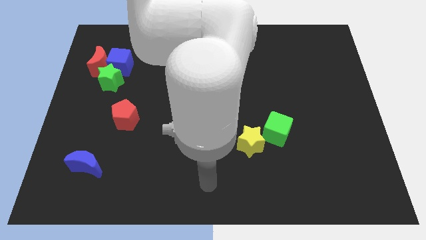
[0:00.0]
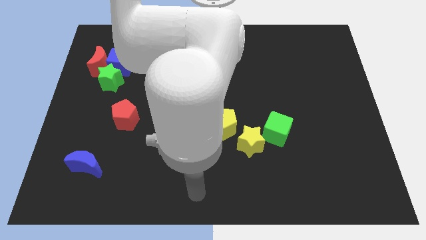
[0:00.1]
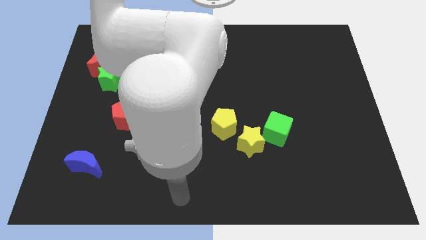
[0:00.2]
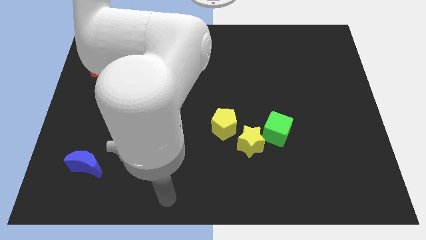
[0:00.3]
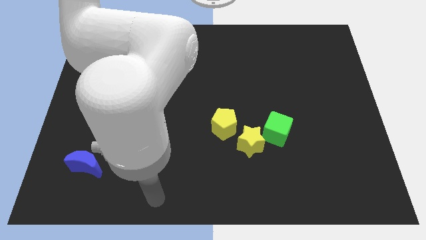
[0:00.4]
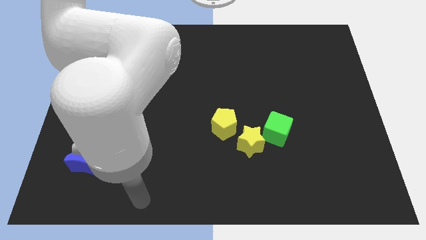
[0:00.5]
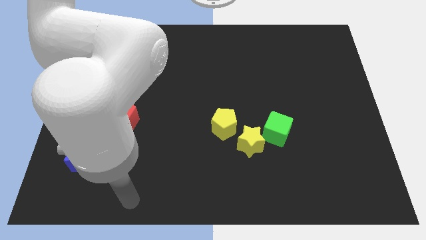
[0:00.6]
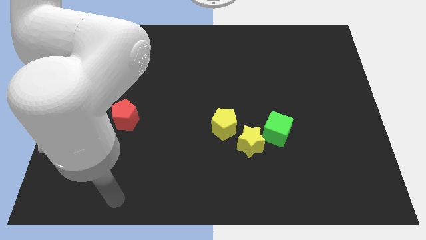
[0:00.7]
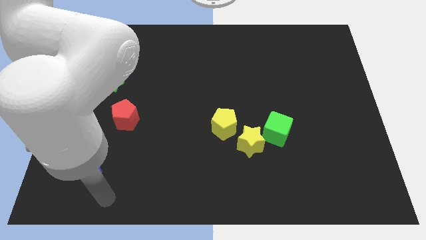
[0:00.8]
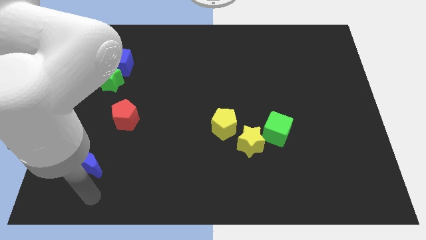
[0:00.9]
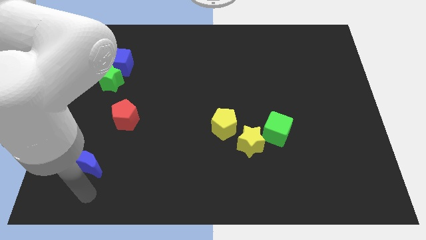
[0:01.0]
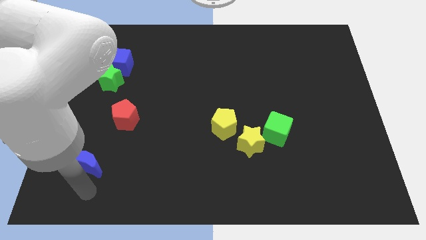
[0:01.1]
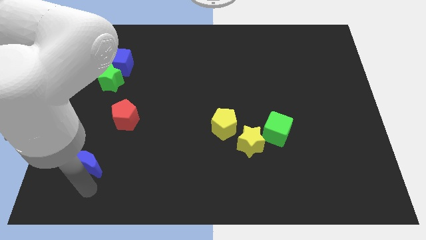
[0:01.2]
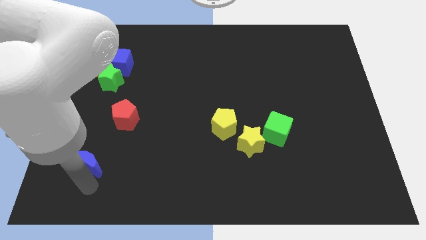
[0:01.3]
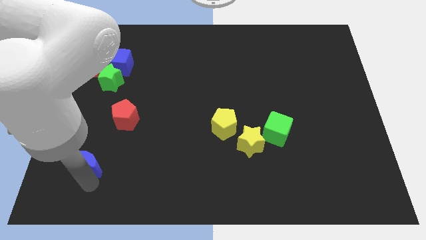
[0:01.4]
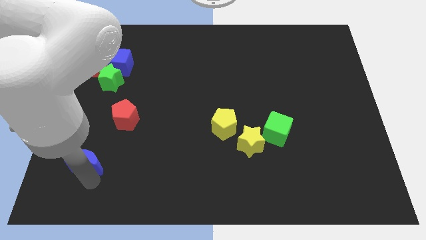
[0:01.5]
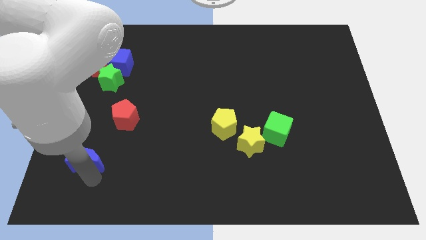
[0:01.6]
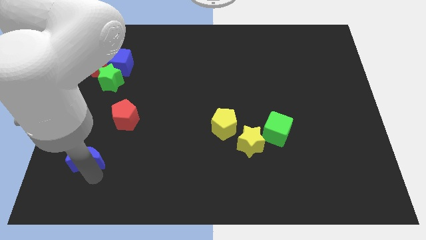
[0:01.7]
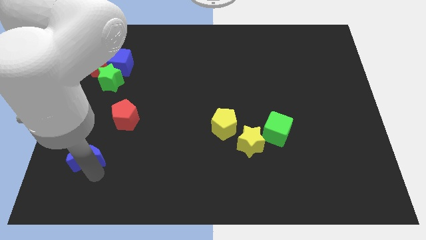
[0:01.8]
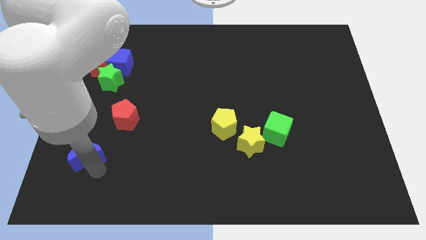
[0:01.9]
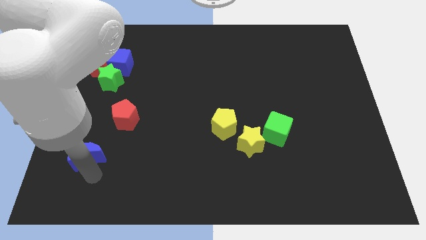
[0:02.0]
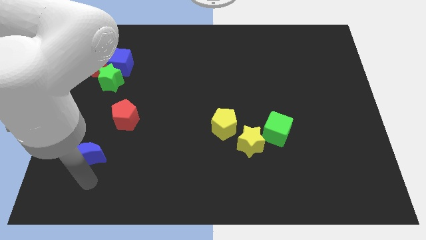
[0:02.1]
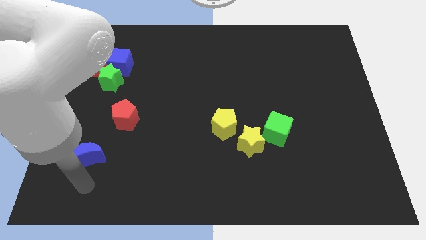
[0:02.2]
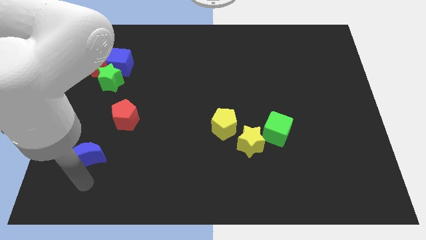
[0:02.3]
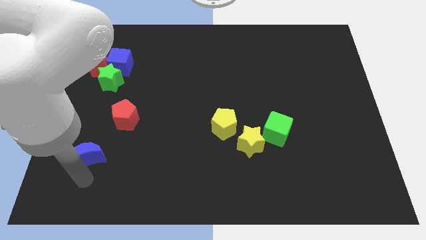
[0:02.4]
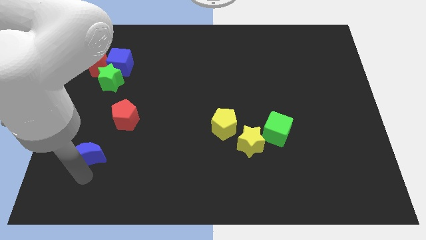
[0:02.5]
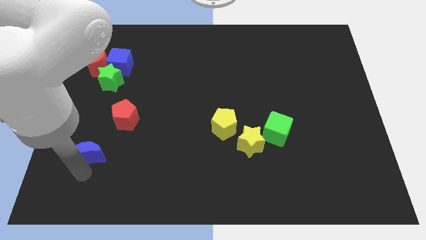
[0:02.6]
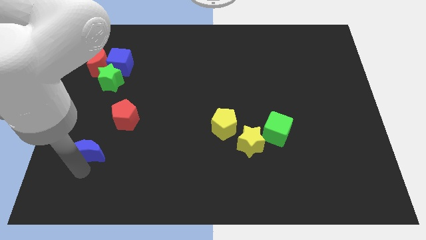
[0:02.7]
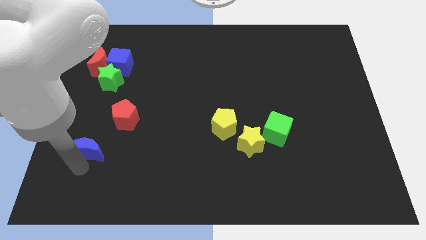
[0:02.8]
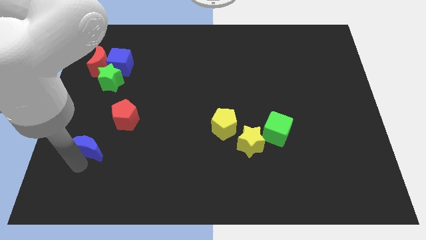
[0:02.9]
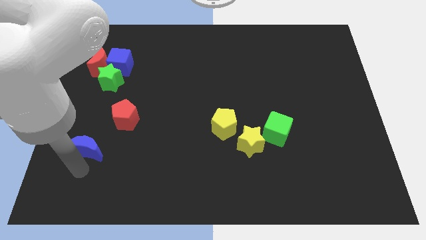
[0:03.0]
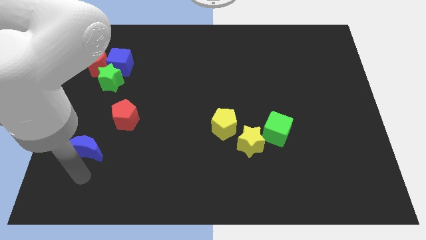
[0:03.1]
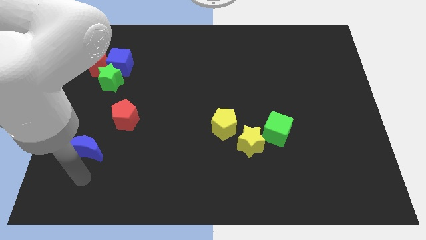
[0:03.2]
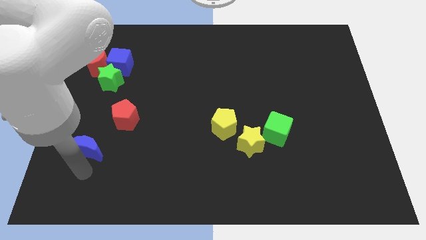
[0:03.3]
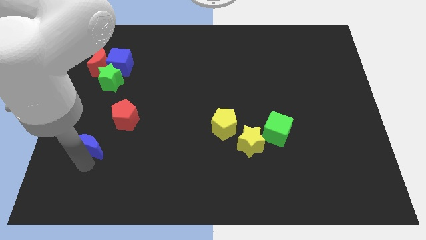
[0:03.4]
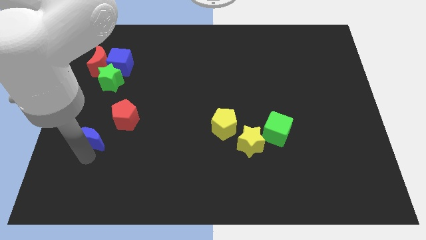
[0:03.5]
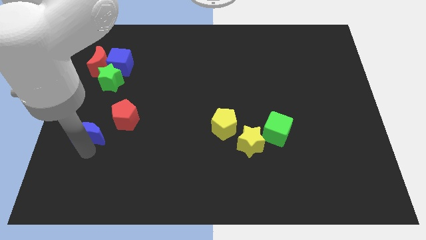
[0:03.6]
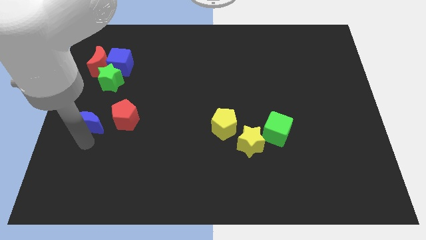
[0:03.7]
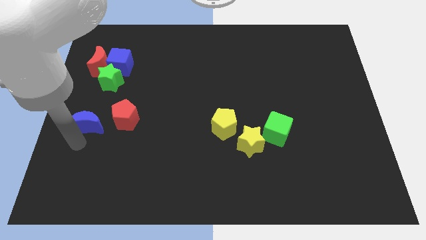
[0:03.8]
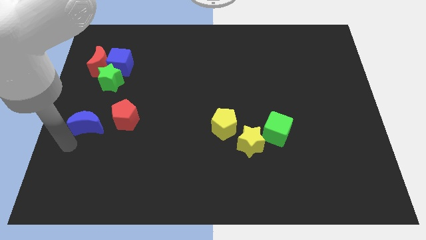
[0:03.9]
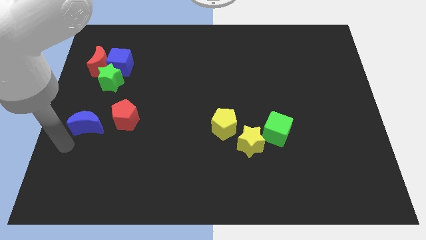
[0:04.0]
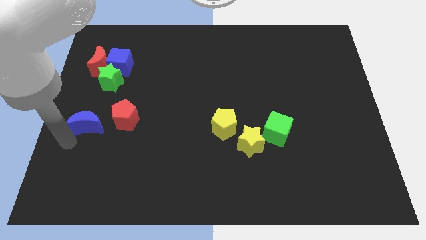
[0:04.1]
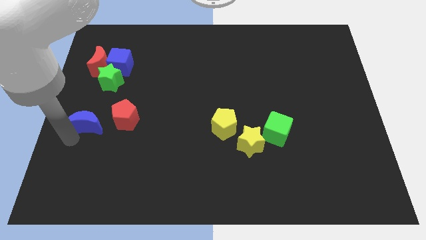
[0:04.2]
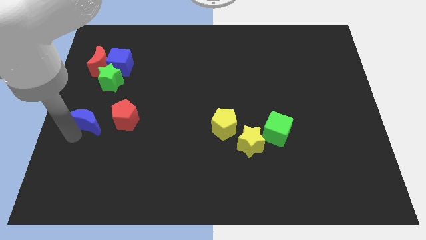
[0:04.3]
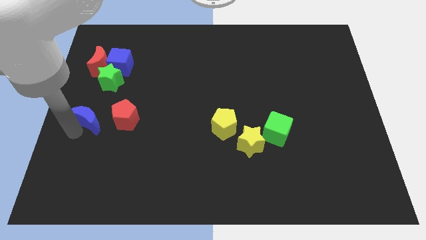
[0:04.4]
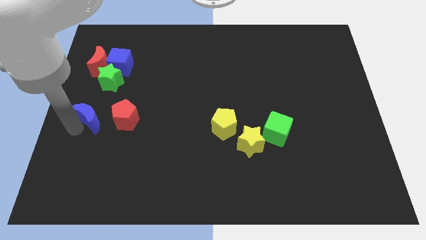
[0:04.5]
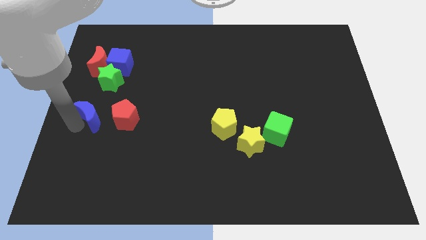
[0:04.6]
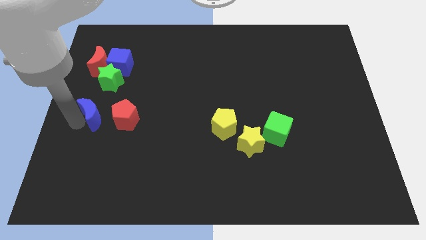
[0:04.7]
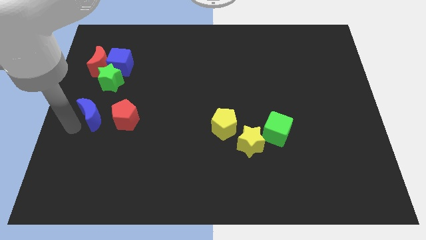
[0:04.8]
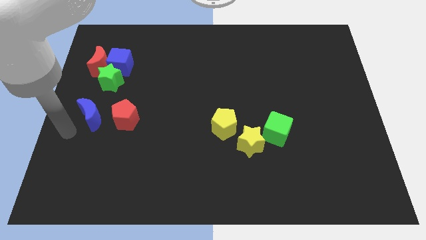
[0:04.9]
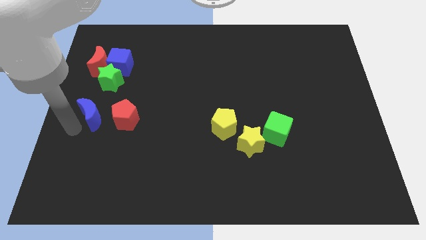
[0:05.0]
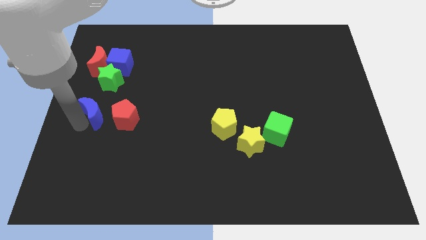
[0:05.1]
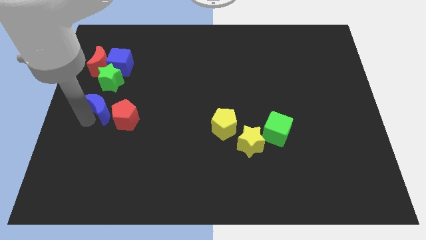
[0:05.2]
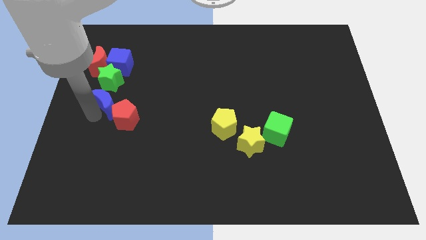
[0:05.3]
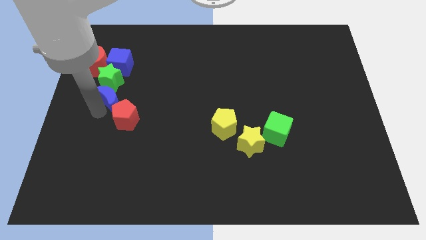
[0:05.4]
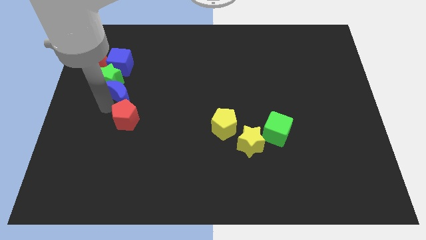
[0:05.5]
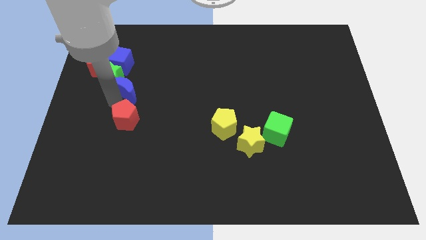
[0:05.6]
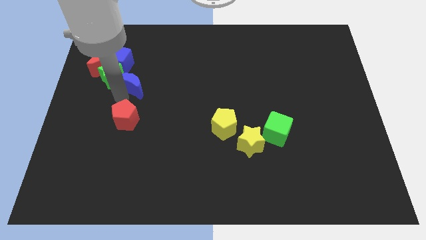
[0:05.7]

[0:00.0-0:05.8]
move the blue moon up

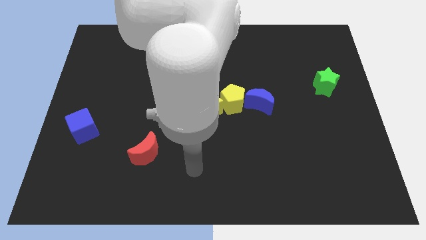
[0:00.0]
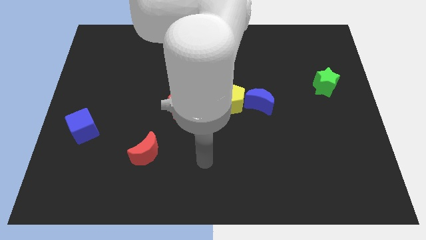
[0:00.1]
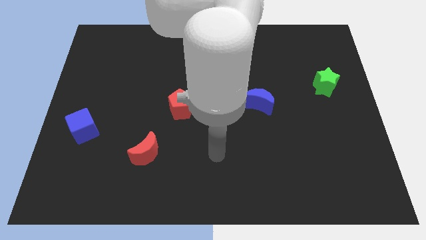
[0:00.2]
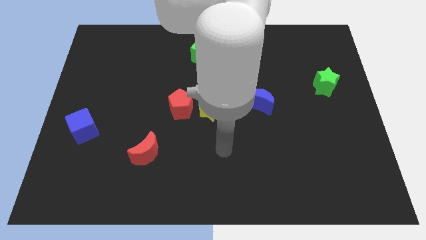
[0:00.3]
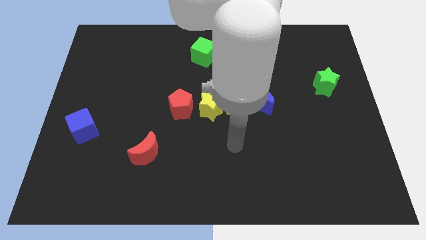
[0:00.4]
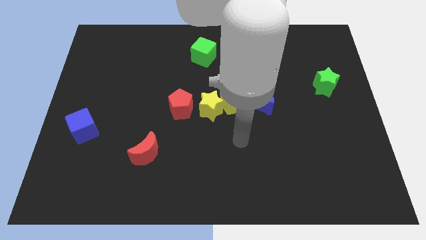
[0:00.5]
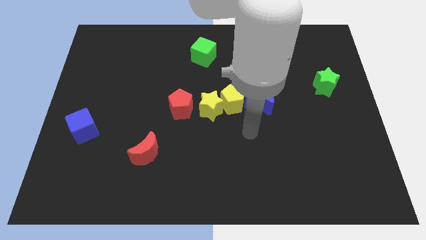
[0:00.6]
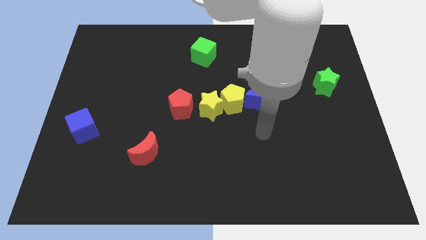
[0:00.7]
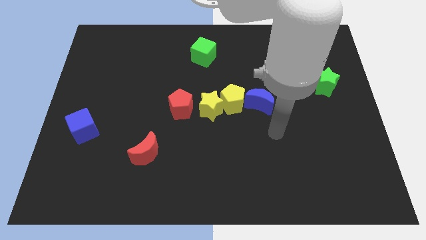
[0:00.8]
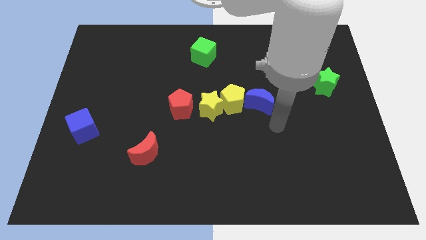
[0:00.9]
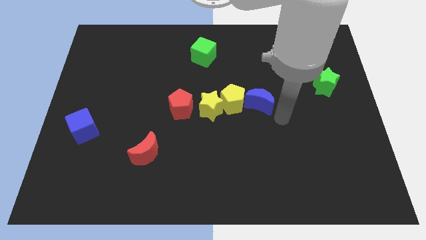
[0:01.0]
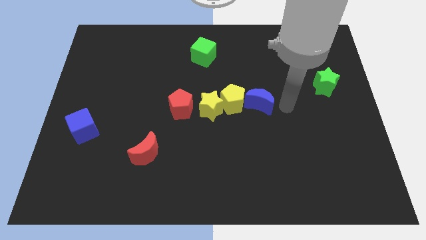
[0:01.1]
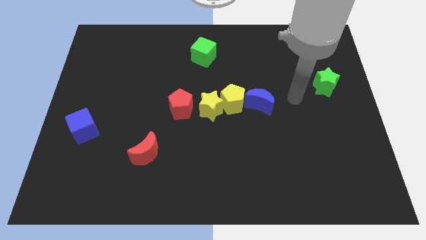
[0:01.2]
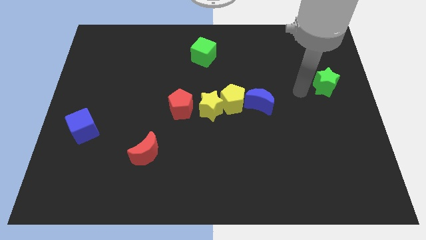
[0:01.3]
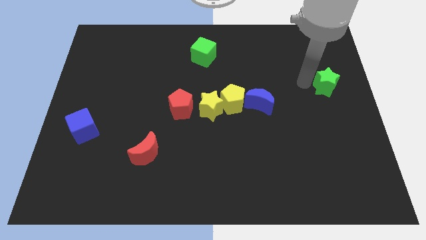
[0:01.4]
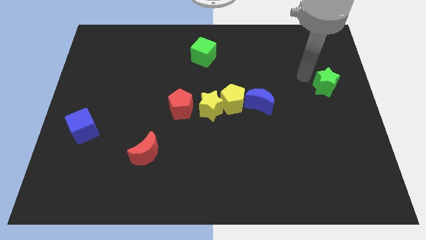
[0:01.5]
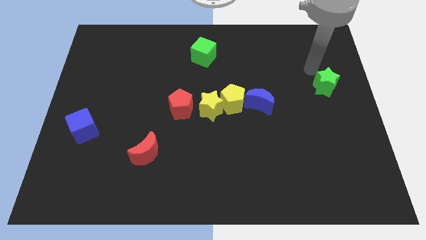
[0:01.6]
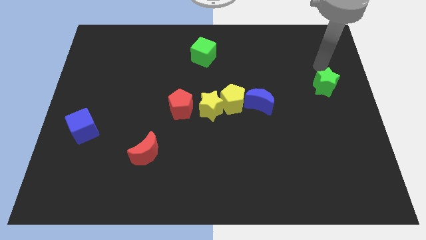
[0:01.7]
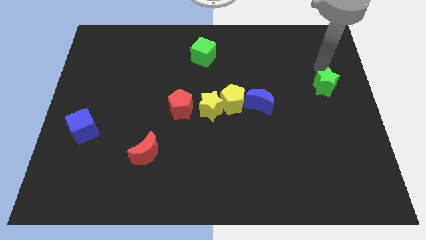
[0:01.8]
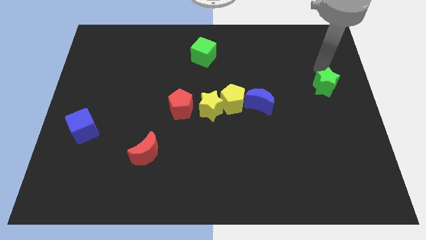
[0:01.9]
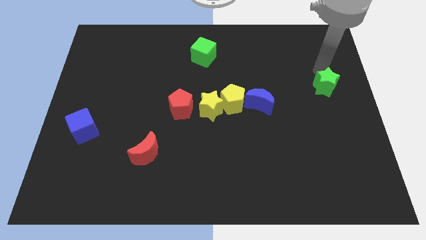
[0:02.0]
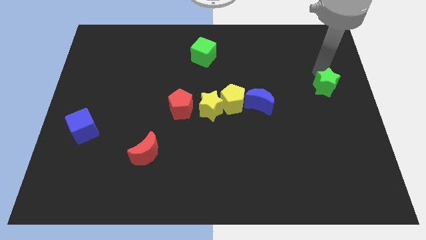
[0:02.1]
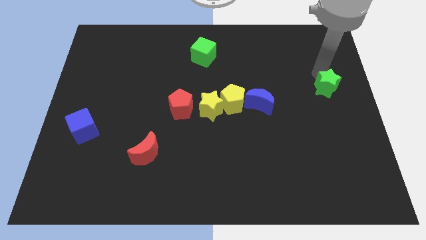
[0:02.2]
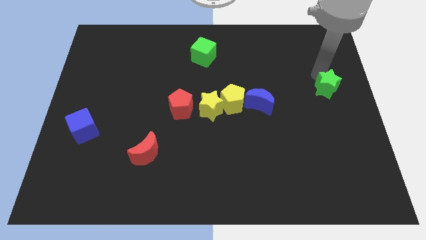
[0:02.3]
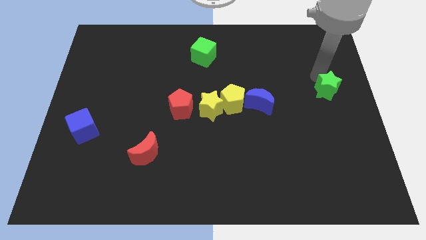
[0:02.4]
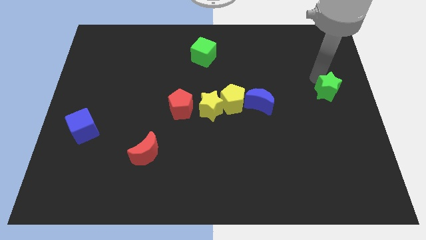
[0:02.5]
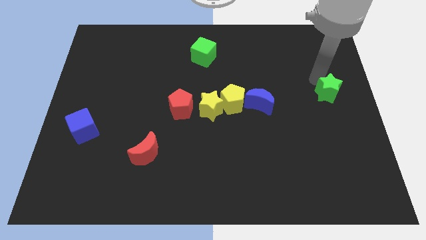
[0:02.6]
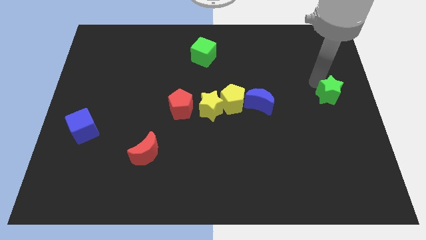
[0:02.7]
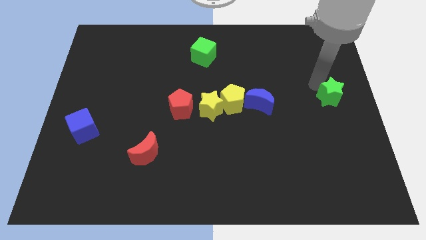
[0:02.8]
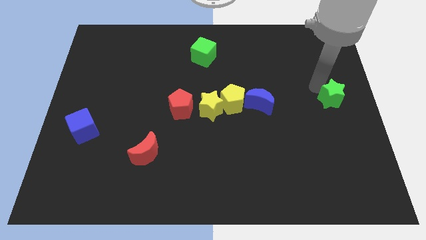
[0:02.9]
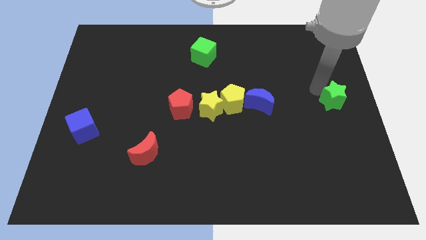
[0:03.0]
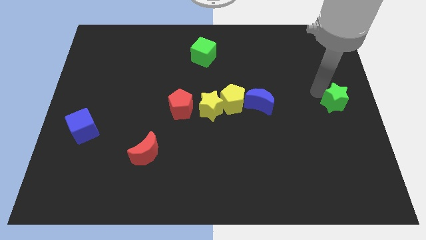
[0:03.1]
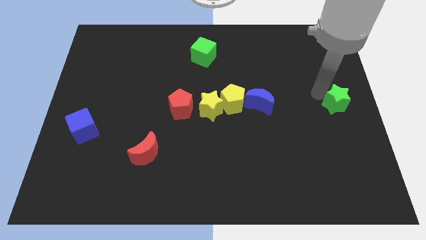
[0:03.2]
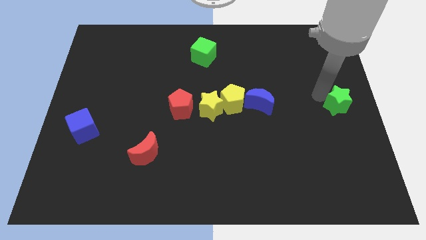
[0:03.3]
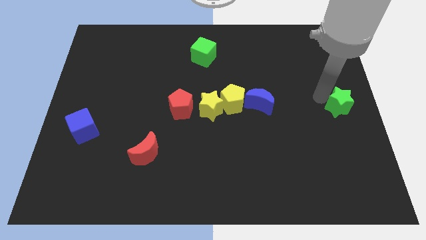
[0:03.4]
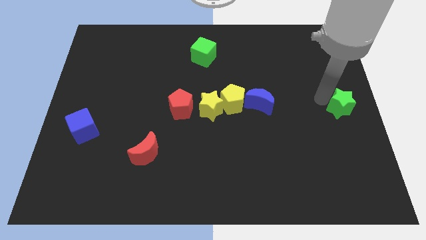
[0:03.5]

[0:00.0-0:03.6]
push the green star a bit downwards
